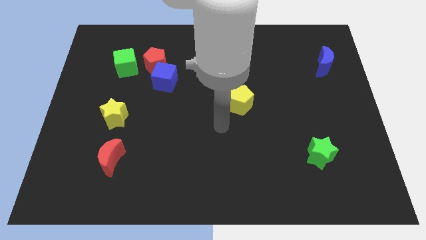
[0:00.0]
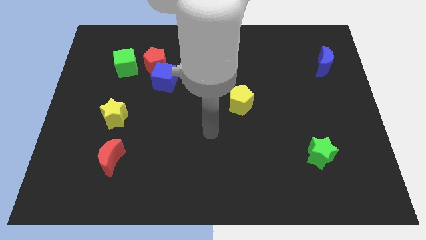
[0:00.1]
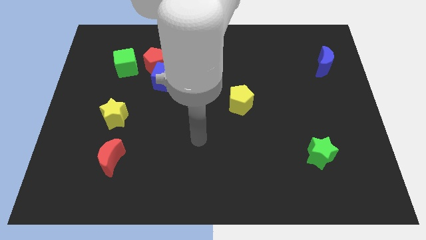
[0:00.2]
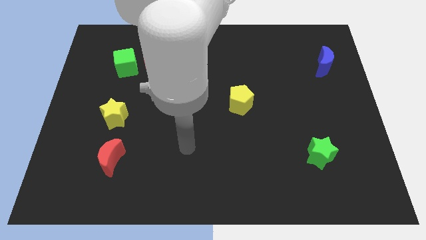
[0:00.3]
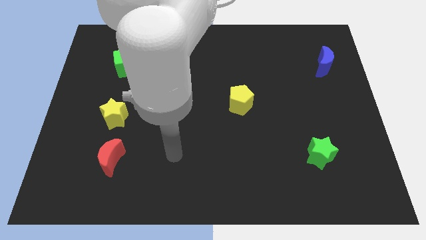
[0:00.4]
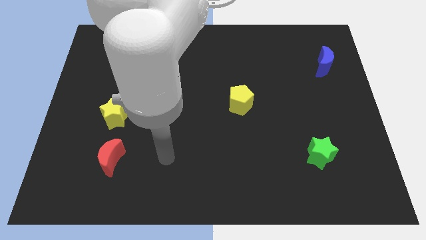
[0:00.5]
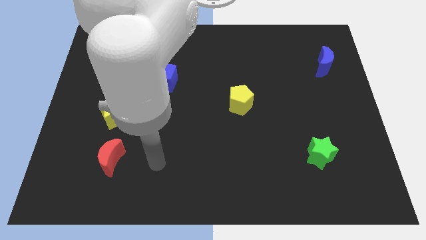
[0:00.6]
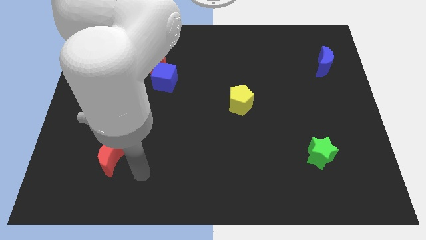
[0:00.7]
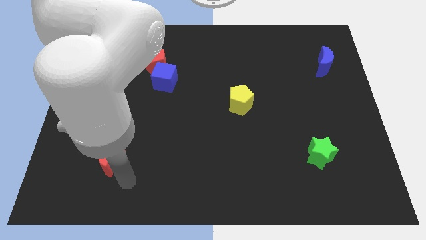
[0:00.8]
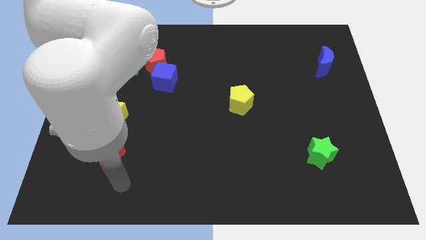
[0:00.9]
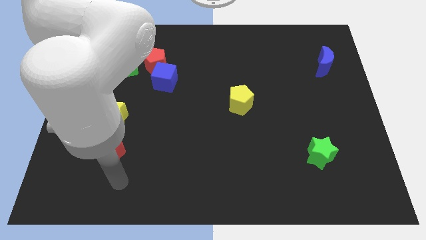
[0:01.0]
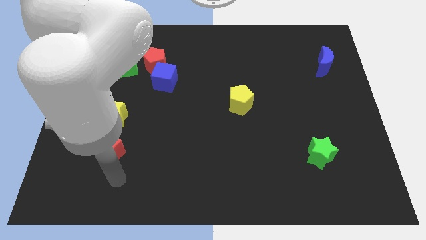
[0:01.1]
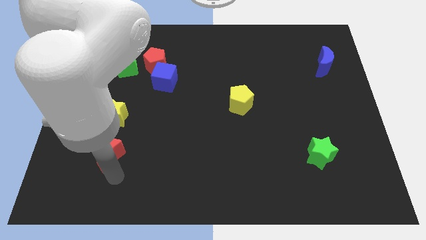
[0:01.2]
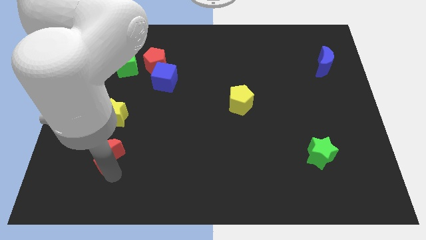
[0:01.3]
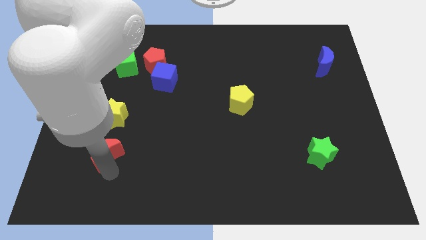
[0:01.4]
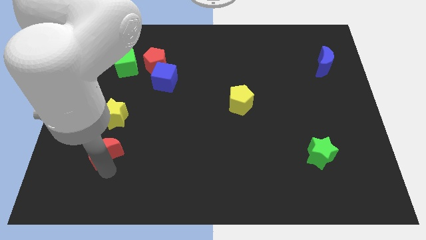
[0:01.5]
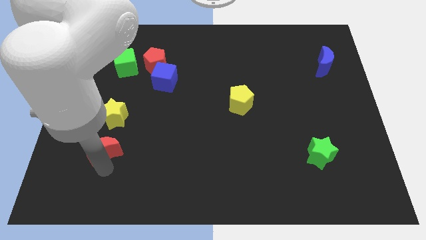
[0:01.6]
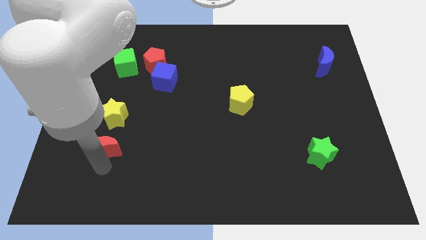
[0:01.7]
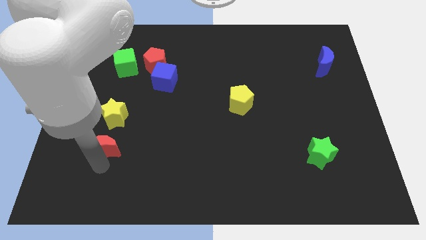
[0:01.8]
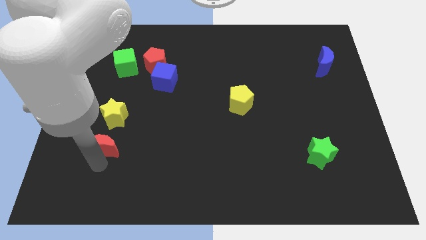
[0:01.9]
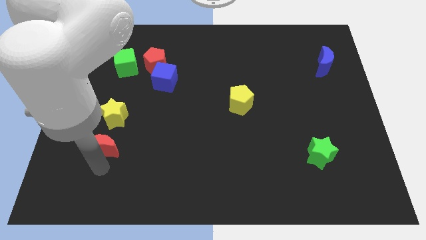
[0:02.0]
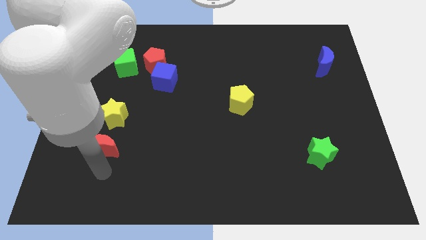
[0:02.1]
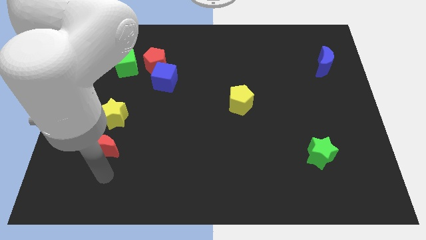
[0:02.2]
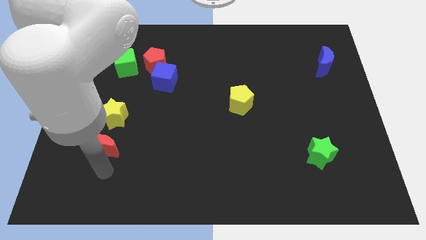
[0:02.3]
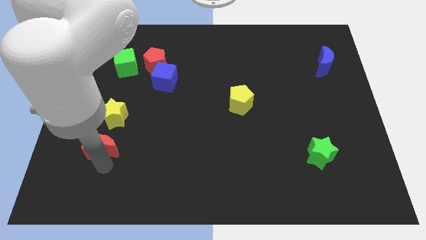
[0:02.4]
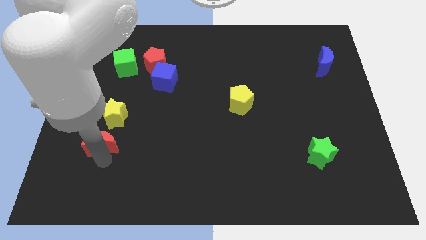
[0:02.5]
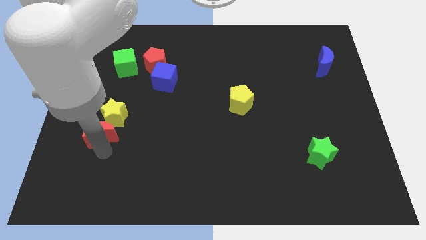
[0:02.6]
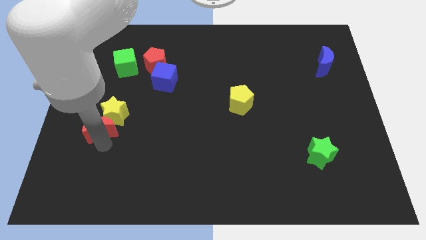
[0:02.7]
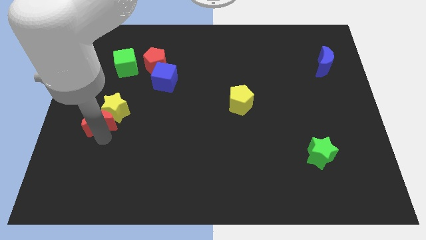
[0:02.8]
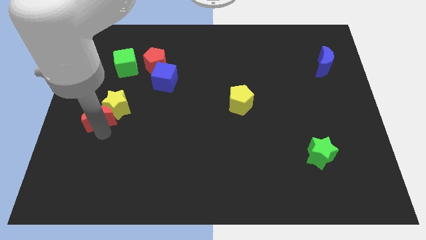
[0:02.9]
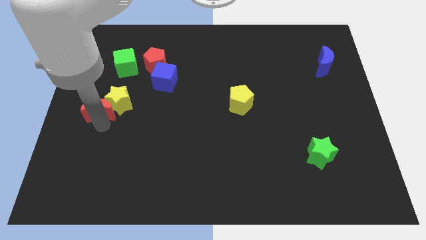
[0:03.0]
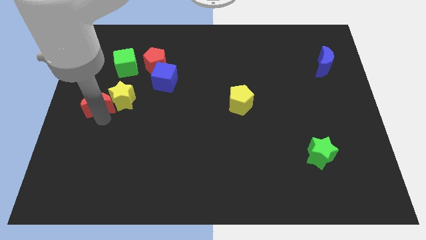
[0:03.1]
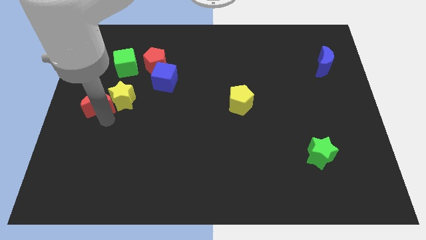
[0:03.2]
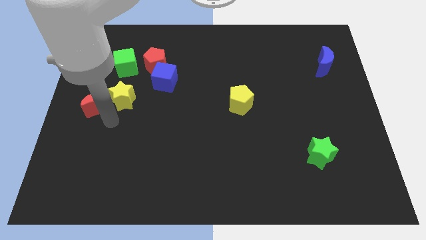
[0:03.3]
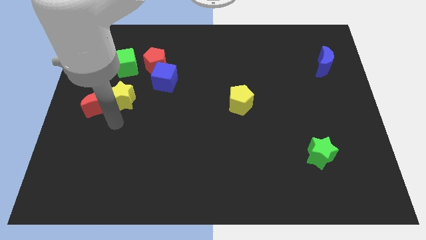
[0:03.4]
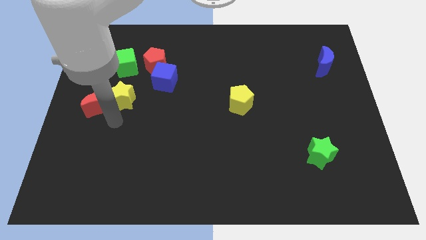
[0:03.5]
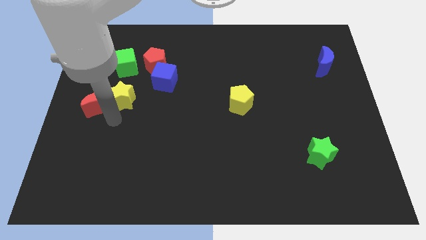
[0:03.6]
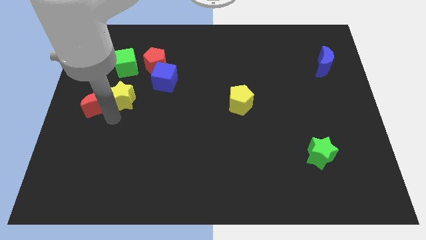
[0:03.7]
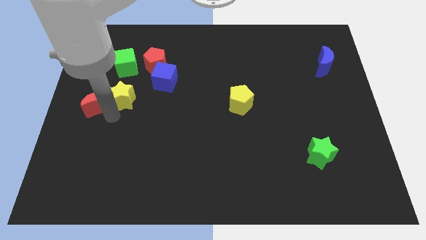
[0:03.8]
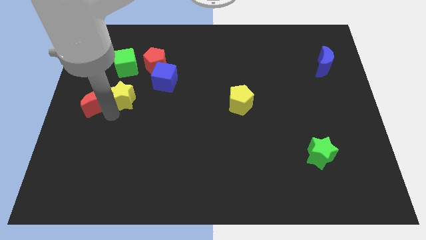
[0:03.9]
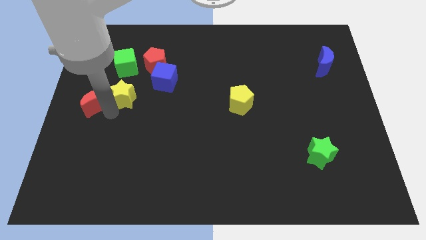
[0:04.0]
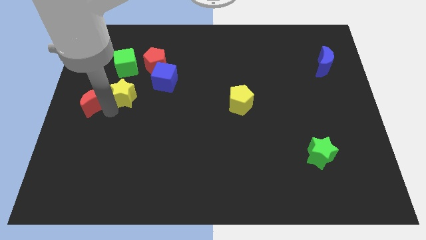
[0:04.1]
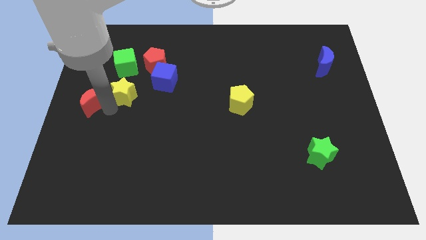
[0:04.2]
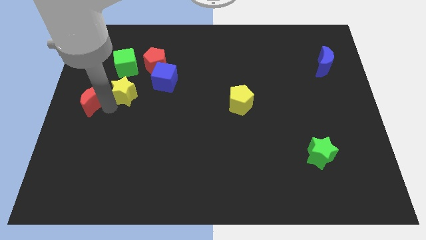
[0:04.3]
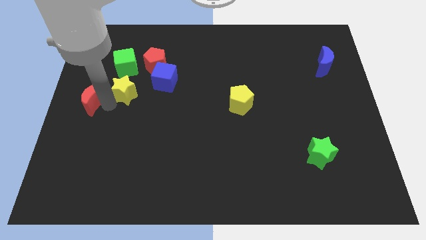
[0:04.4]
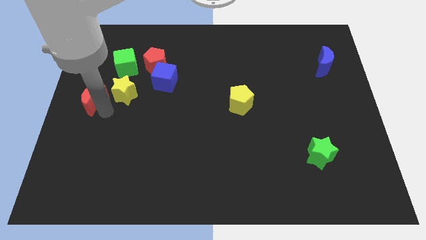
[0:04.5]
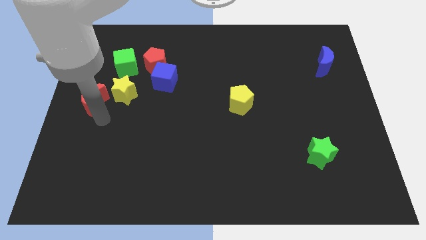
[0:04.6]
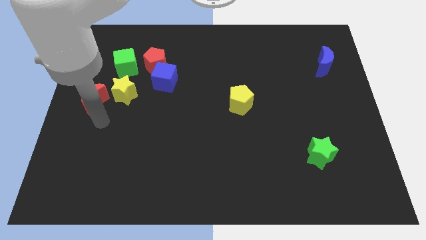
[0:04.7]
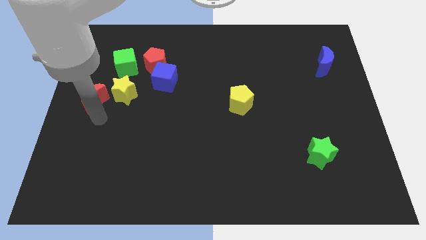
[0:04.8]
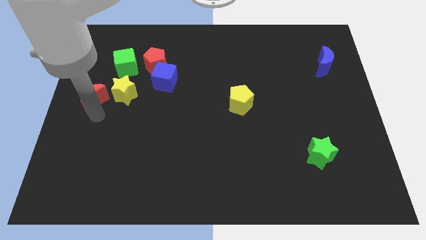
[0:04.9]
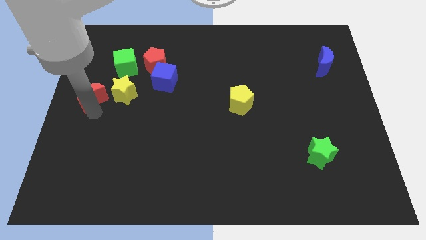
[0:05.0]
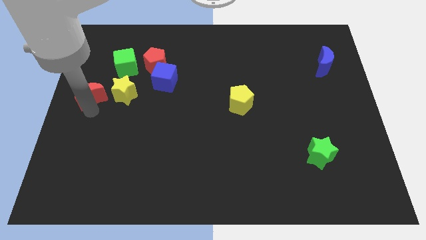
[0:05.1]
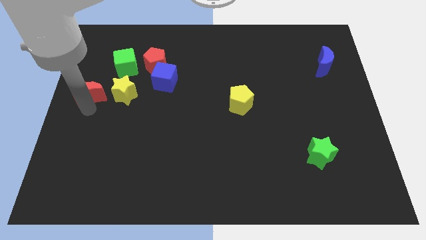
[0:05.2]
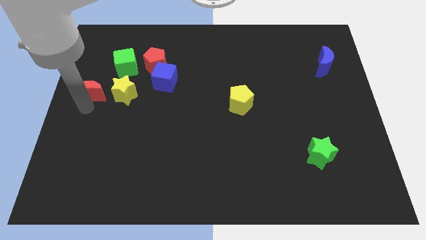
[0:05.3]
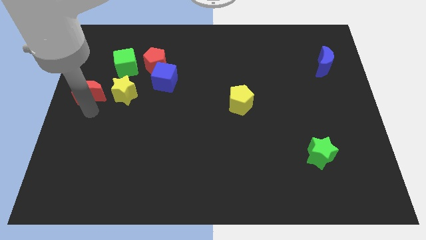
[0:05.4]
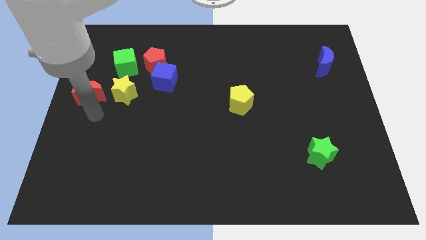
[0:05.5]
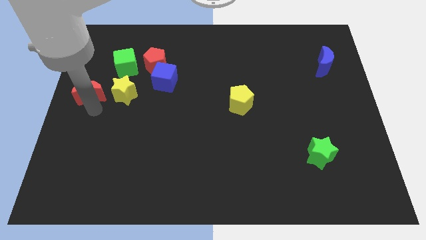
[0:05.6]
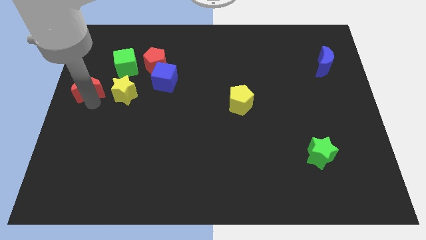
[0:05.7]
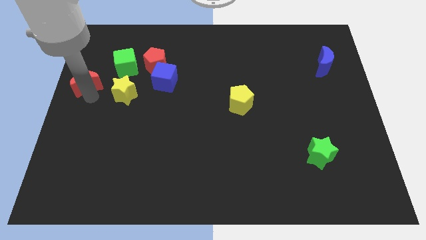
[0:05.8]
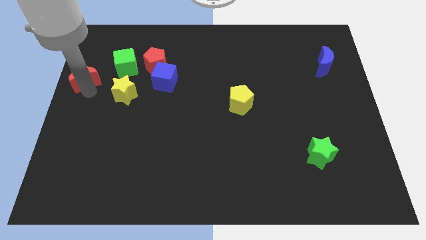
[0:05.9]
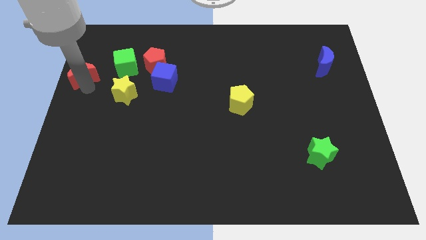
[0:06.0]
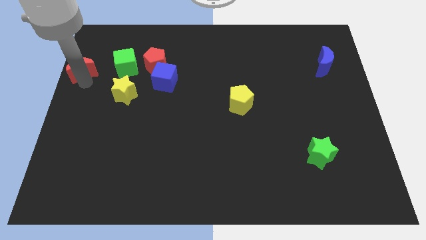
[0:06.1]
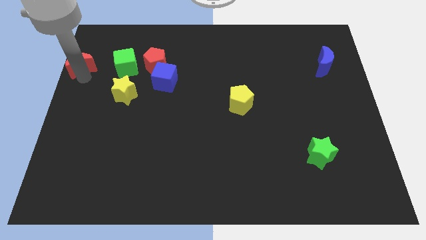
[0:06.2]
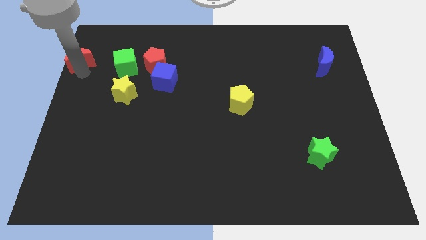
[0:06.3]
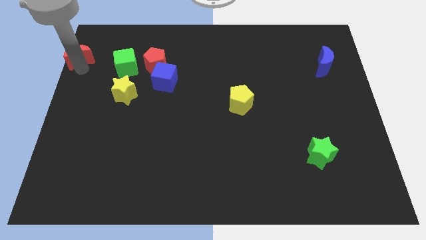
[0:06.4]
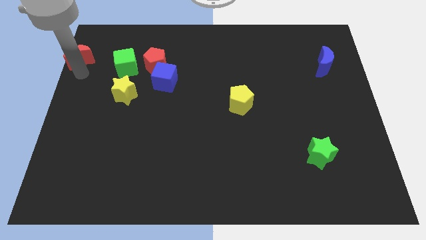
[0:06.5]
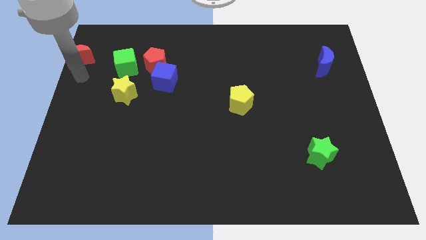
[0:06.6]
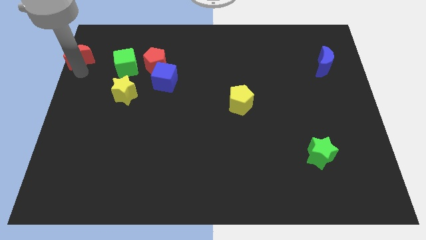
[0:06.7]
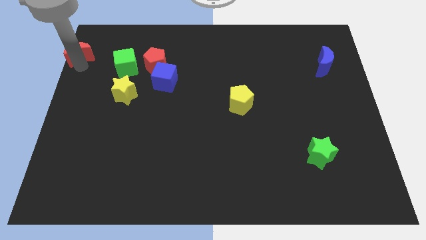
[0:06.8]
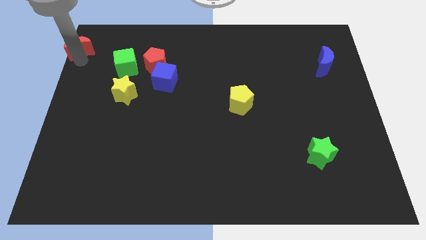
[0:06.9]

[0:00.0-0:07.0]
move the red moon to the upper left corner

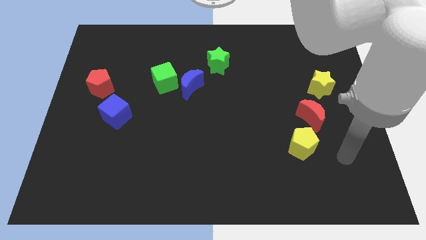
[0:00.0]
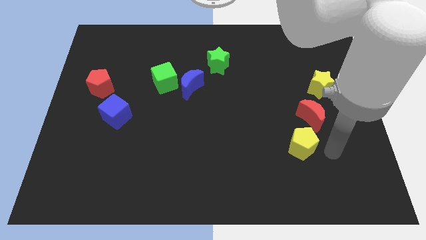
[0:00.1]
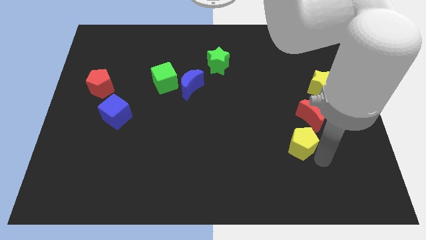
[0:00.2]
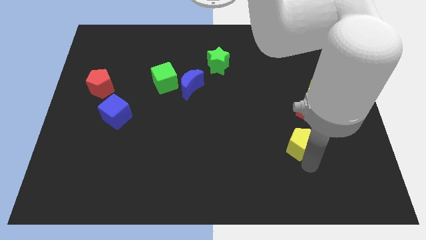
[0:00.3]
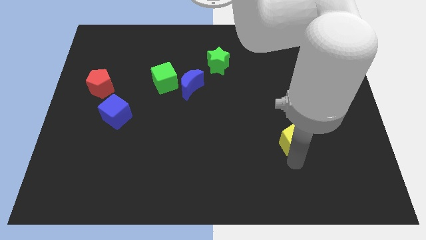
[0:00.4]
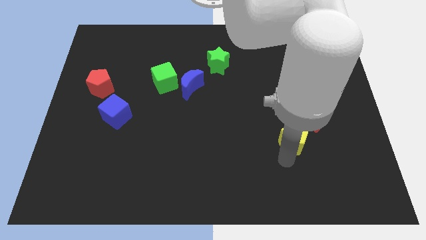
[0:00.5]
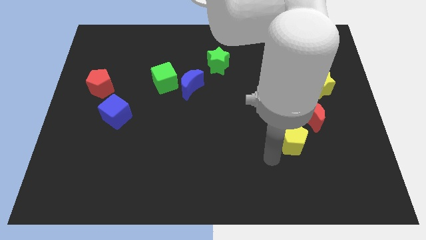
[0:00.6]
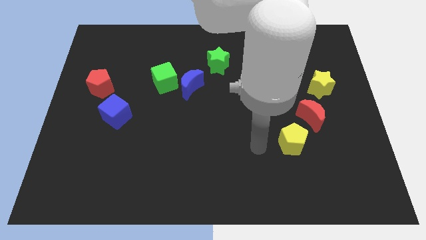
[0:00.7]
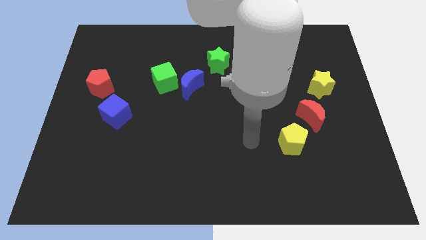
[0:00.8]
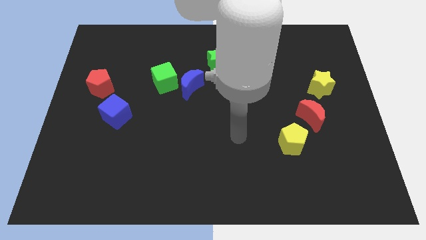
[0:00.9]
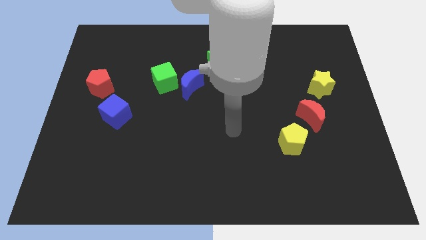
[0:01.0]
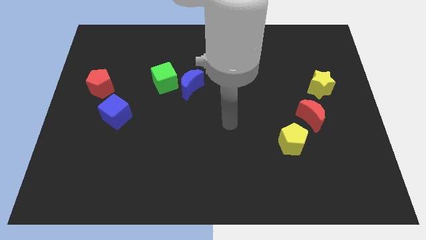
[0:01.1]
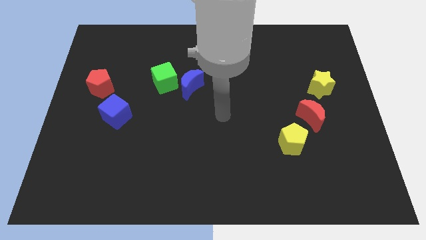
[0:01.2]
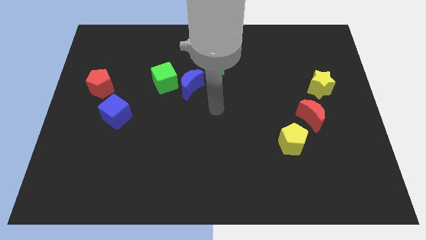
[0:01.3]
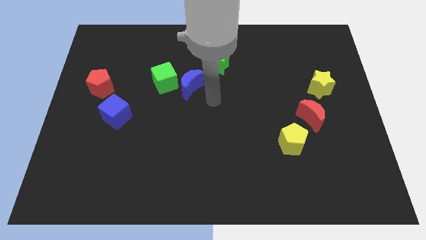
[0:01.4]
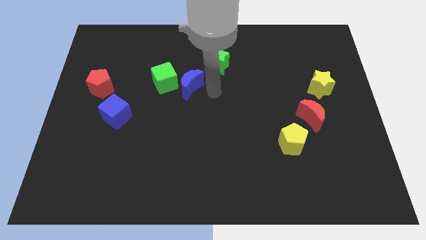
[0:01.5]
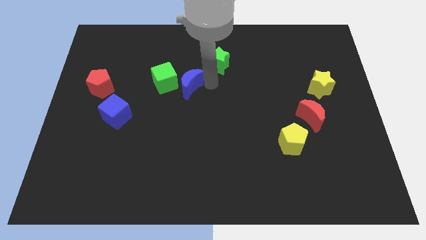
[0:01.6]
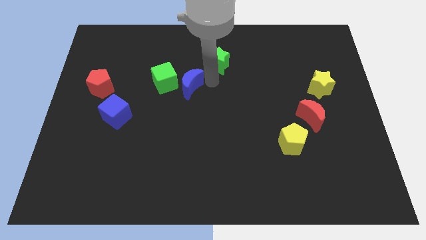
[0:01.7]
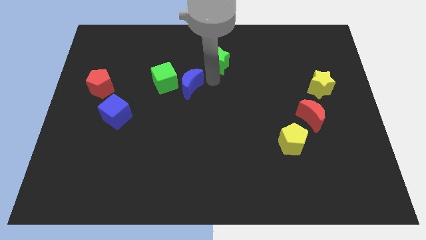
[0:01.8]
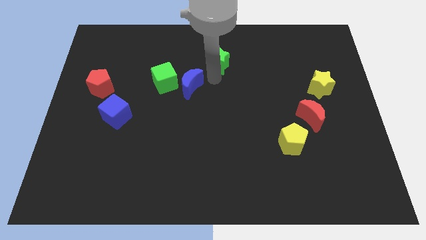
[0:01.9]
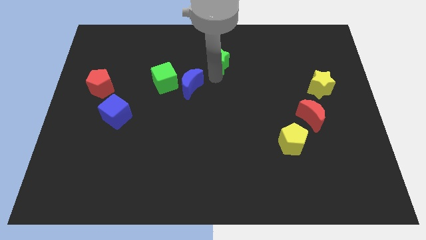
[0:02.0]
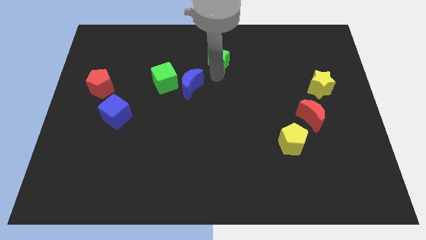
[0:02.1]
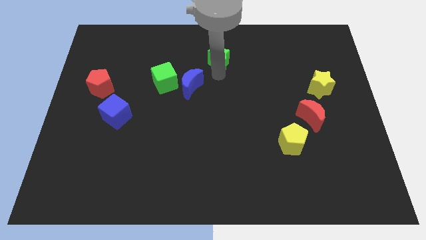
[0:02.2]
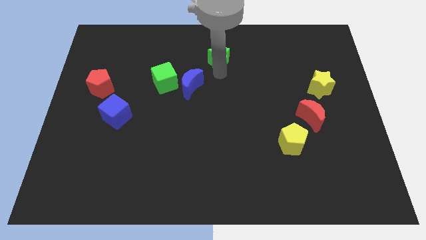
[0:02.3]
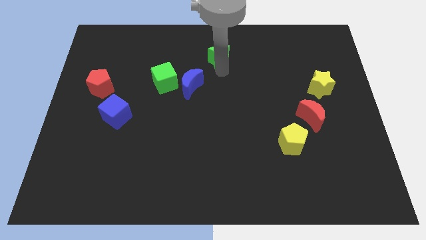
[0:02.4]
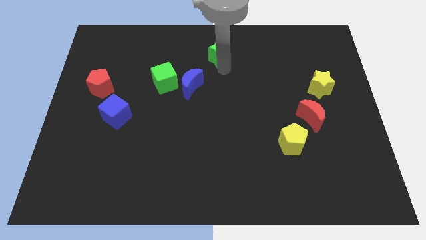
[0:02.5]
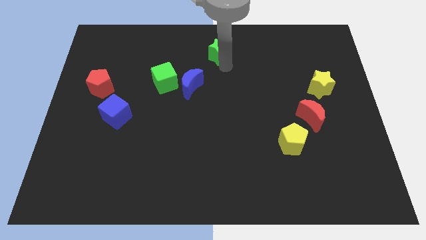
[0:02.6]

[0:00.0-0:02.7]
put the green star to the towards your base
